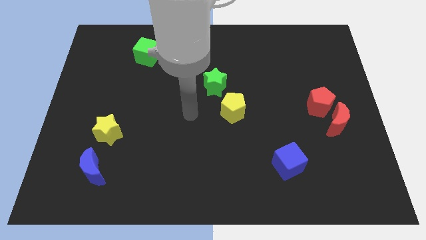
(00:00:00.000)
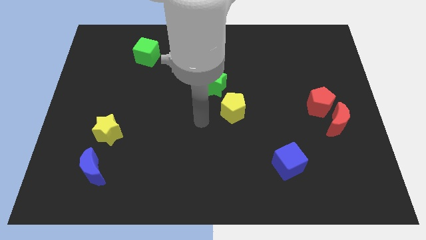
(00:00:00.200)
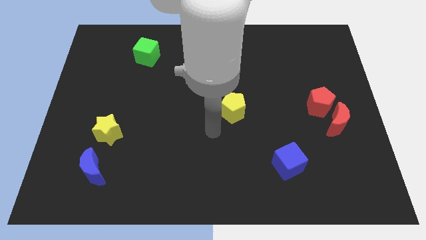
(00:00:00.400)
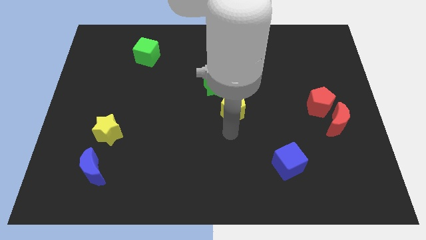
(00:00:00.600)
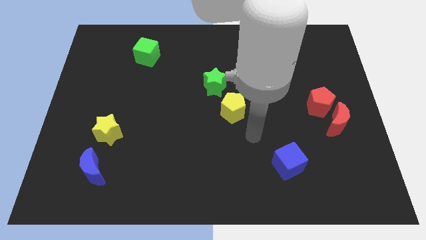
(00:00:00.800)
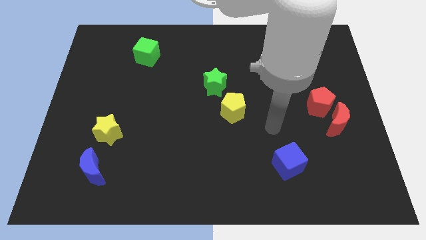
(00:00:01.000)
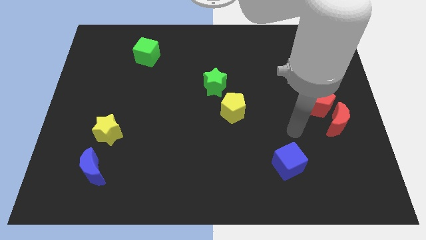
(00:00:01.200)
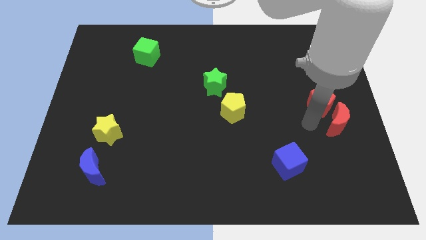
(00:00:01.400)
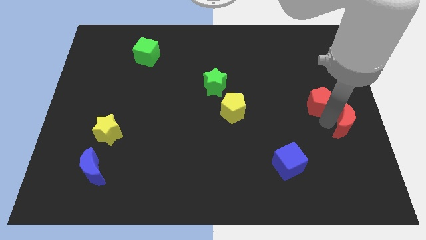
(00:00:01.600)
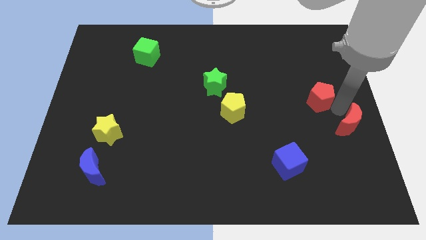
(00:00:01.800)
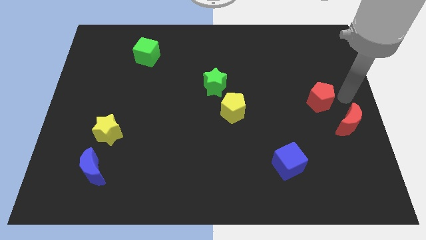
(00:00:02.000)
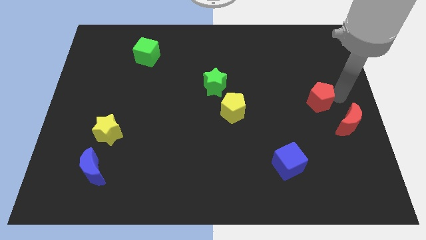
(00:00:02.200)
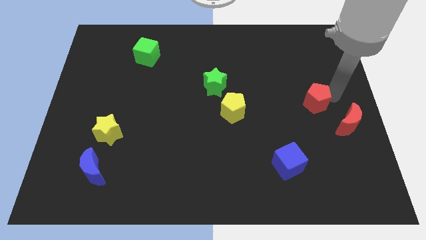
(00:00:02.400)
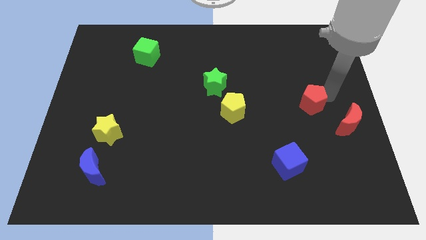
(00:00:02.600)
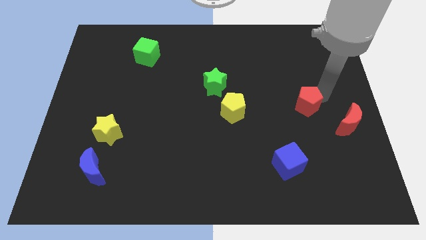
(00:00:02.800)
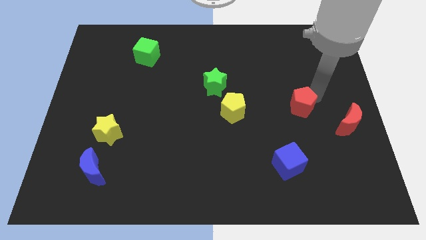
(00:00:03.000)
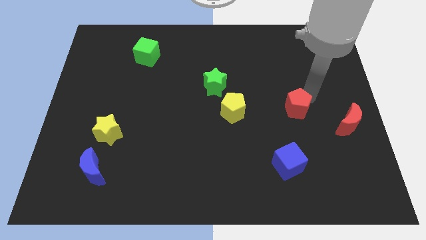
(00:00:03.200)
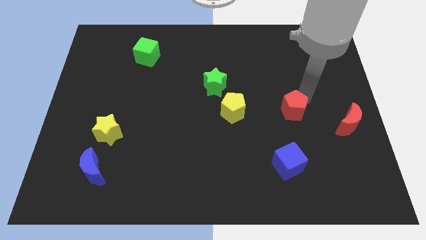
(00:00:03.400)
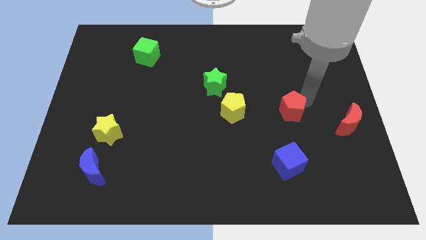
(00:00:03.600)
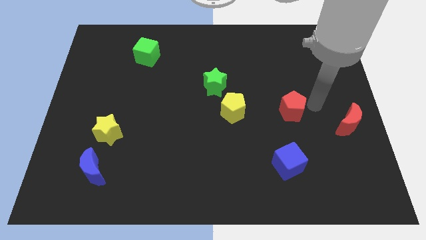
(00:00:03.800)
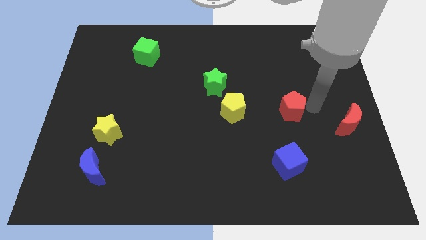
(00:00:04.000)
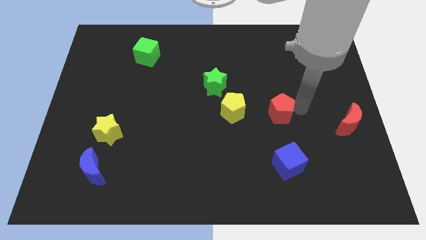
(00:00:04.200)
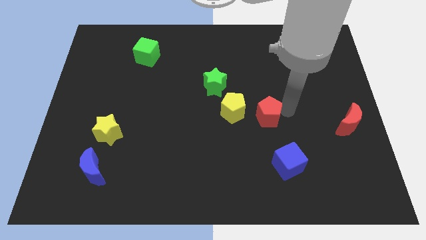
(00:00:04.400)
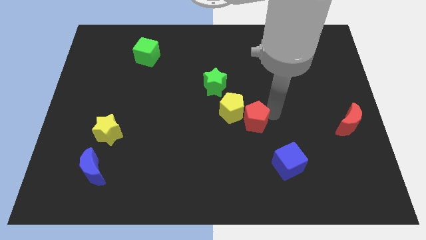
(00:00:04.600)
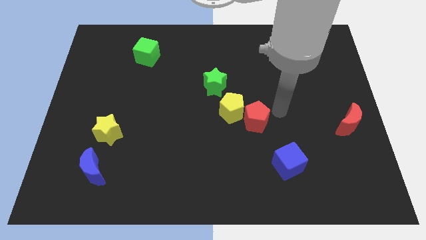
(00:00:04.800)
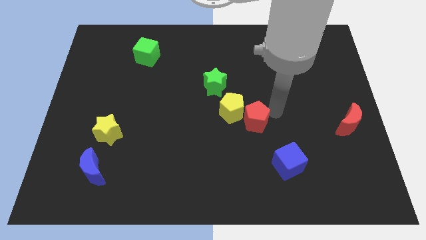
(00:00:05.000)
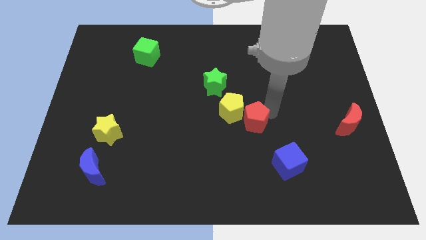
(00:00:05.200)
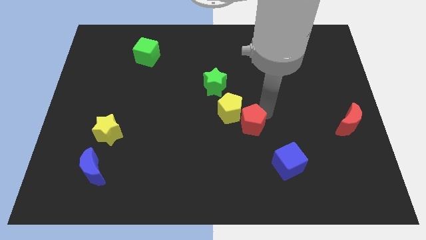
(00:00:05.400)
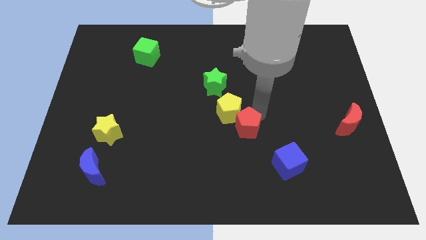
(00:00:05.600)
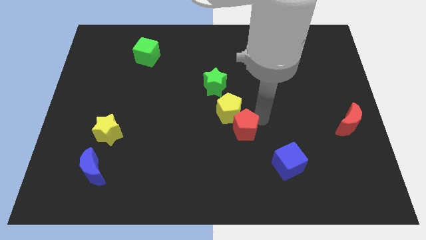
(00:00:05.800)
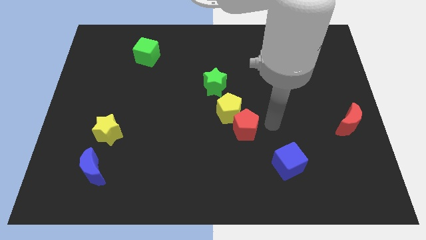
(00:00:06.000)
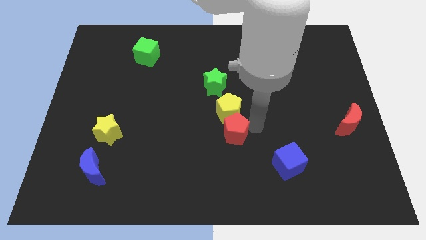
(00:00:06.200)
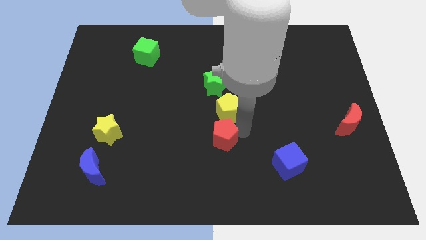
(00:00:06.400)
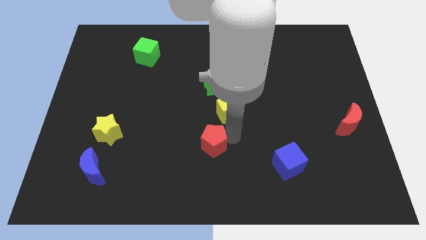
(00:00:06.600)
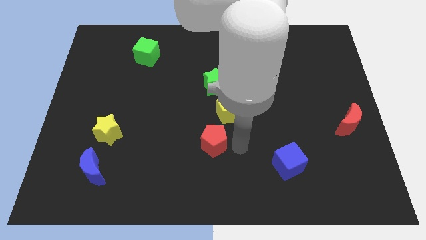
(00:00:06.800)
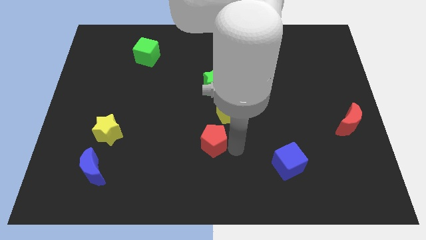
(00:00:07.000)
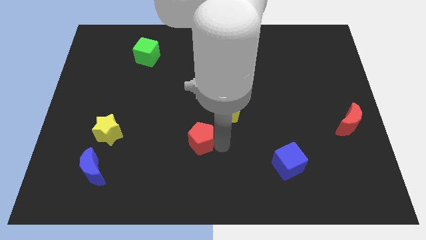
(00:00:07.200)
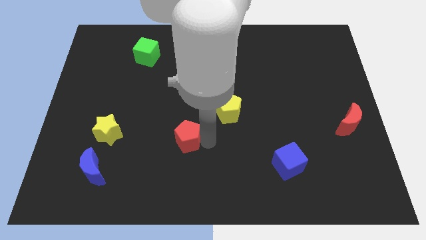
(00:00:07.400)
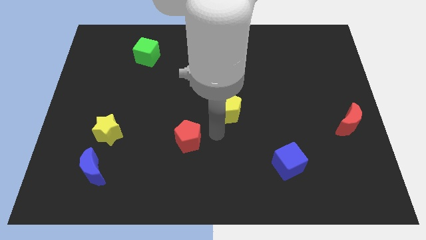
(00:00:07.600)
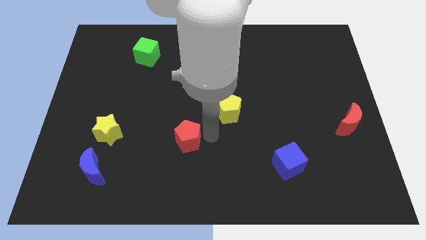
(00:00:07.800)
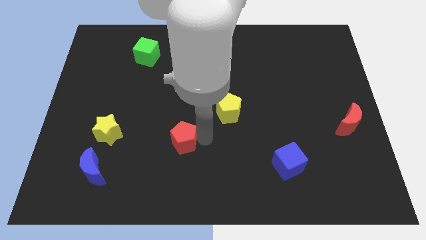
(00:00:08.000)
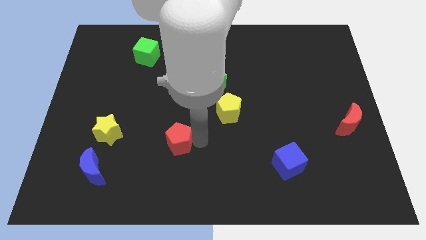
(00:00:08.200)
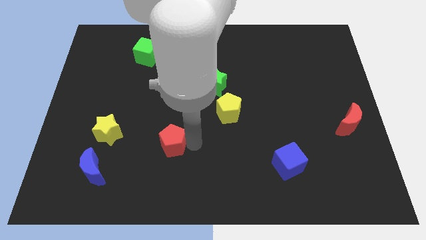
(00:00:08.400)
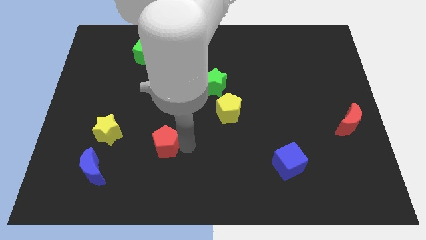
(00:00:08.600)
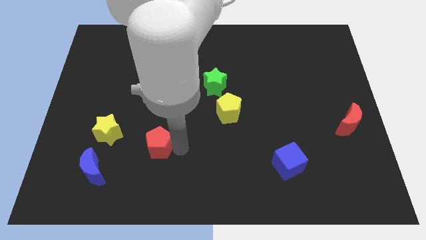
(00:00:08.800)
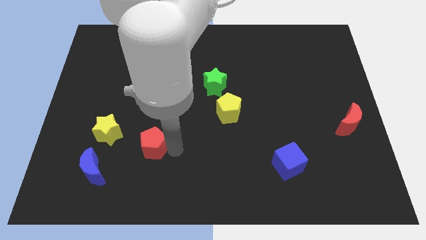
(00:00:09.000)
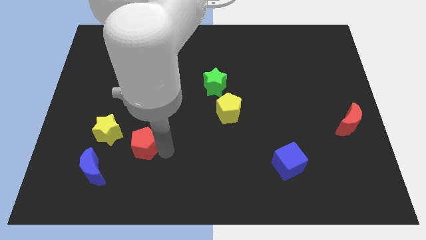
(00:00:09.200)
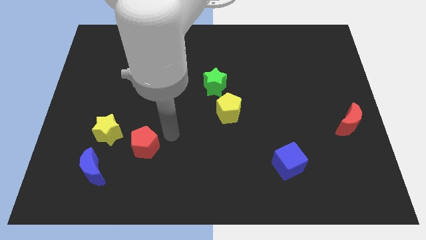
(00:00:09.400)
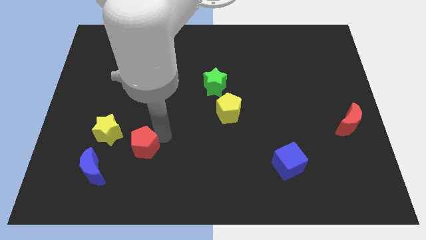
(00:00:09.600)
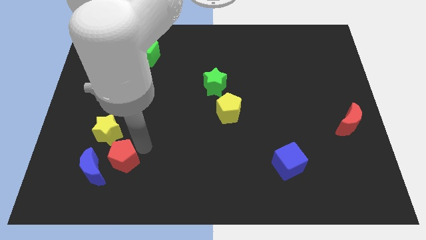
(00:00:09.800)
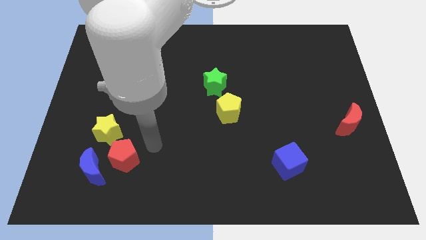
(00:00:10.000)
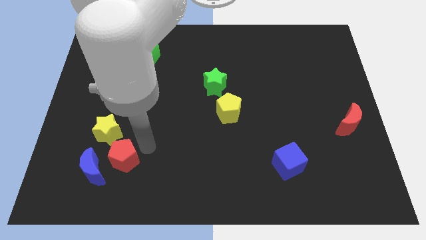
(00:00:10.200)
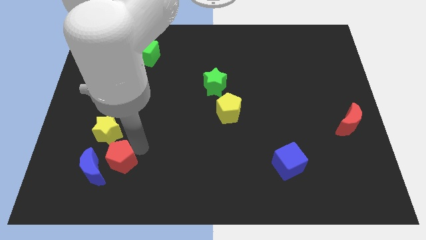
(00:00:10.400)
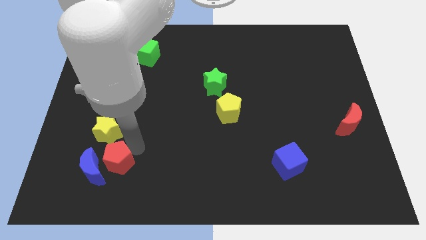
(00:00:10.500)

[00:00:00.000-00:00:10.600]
move the red pentagon to the blue moon

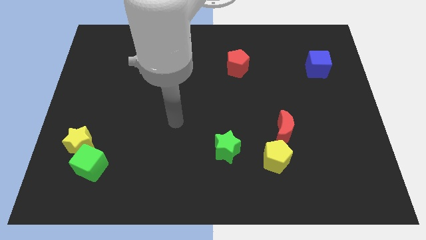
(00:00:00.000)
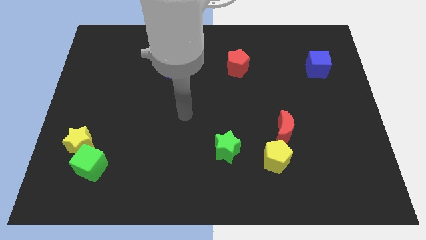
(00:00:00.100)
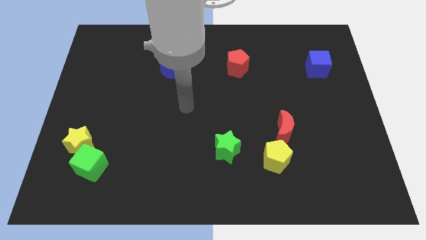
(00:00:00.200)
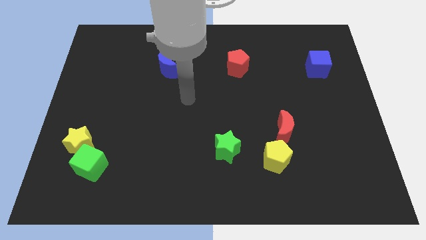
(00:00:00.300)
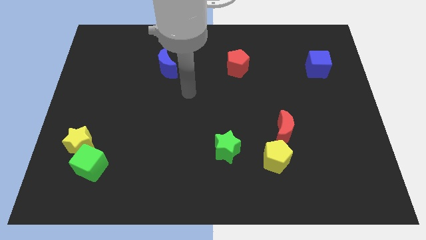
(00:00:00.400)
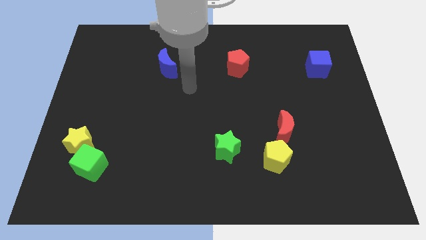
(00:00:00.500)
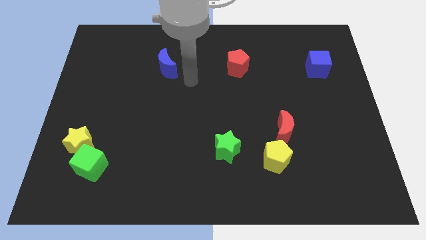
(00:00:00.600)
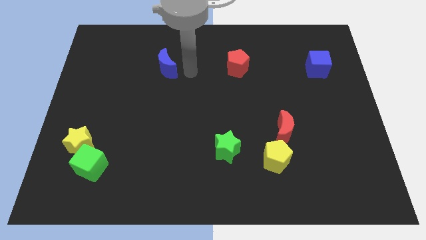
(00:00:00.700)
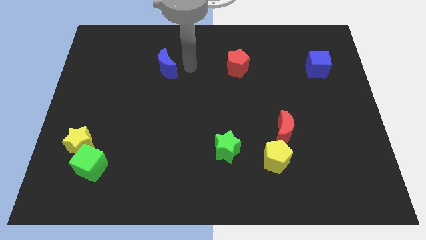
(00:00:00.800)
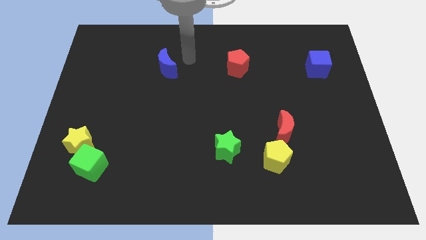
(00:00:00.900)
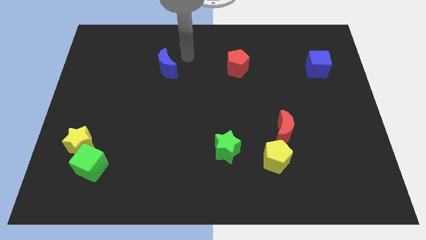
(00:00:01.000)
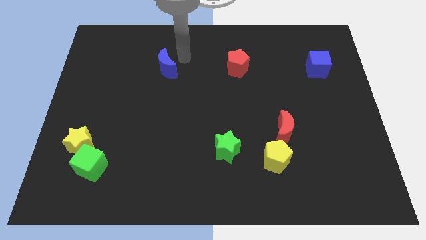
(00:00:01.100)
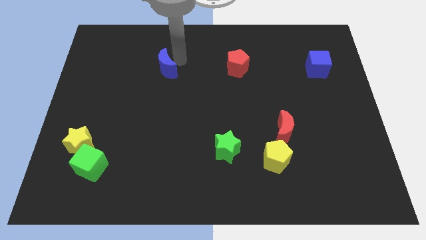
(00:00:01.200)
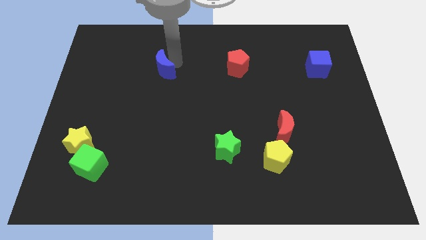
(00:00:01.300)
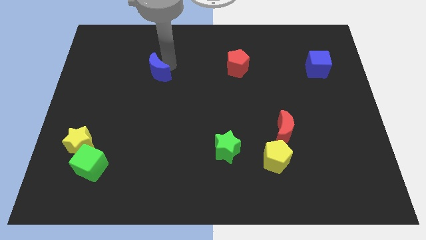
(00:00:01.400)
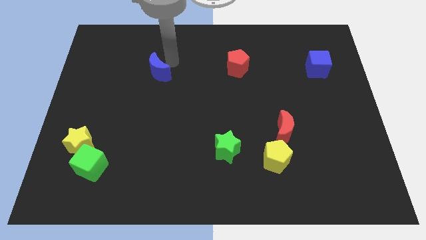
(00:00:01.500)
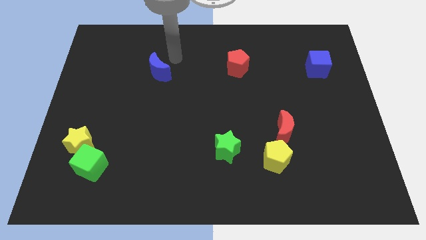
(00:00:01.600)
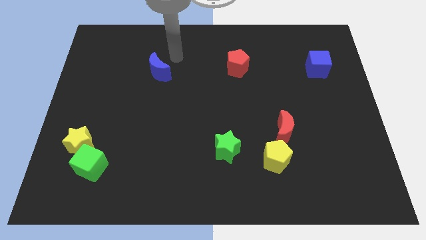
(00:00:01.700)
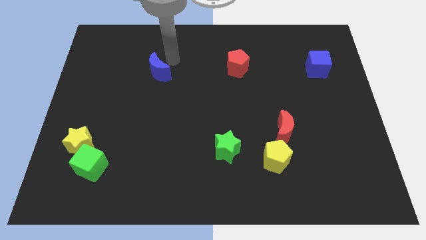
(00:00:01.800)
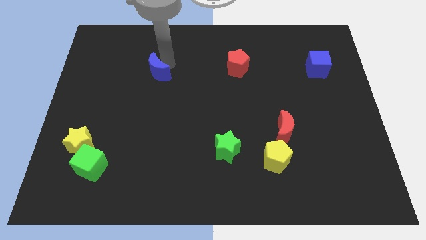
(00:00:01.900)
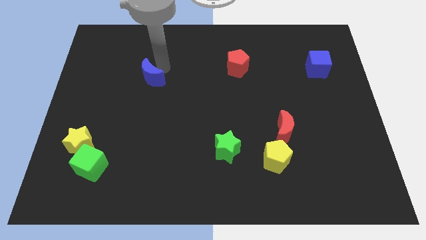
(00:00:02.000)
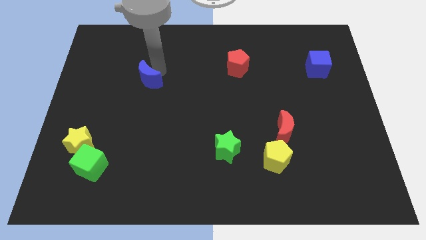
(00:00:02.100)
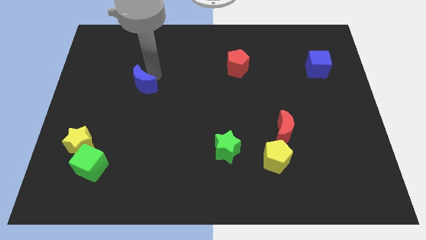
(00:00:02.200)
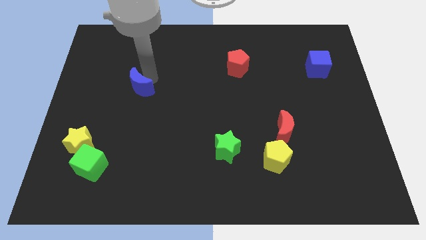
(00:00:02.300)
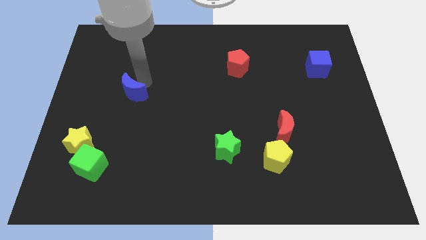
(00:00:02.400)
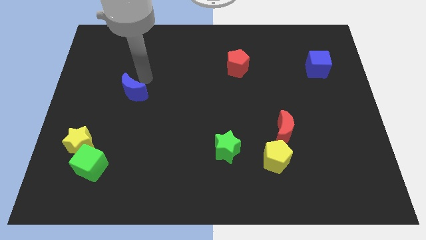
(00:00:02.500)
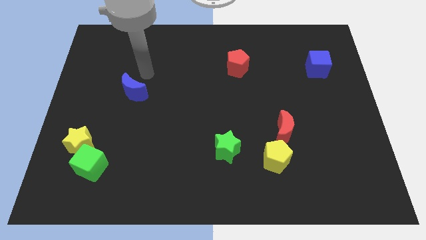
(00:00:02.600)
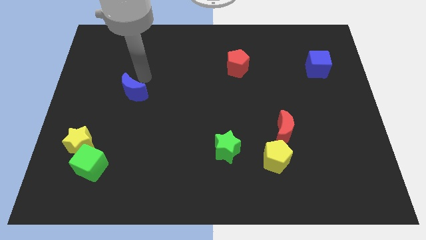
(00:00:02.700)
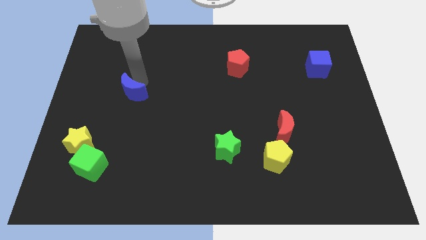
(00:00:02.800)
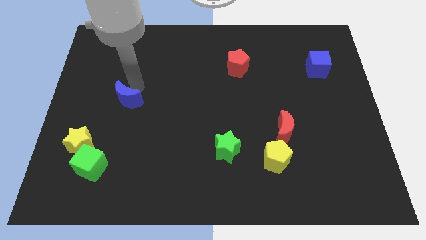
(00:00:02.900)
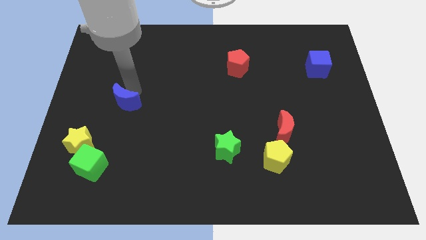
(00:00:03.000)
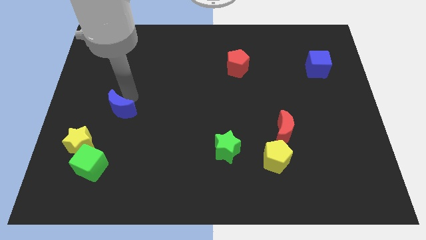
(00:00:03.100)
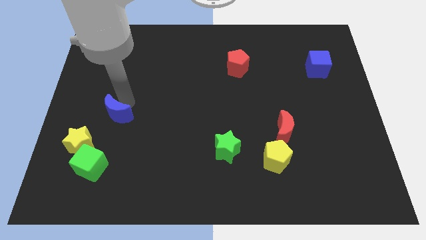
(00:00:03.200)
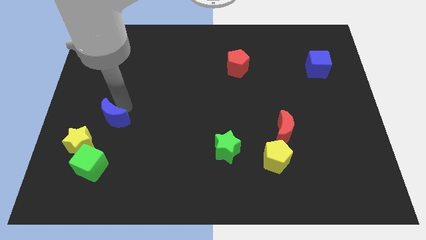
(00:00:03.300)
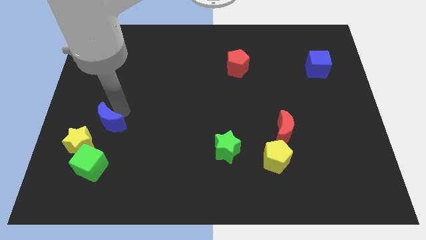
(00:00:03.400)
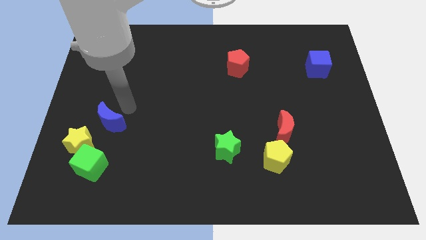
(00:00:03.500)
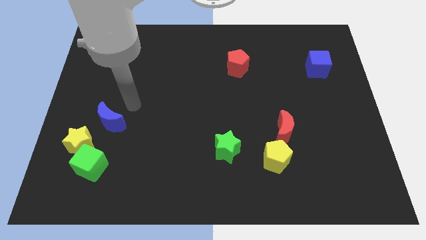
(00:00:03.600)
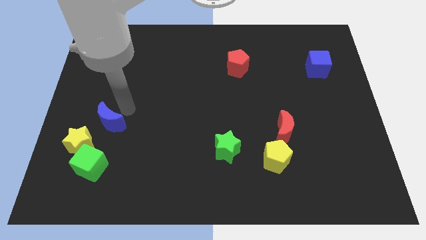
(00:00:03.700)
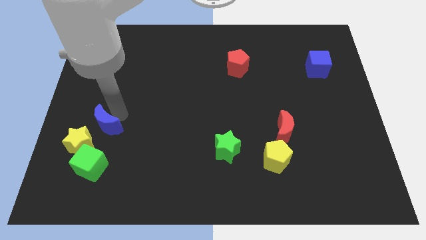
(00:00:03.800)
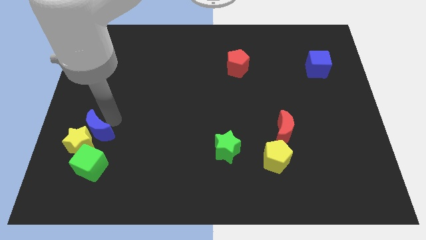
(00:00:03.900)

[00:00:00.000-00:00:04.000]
slide the blue moon to the yellow star
